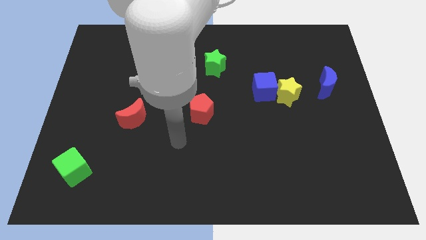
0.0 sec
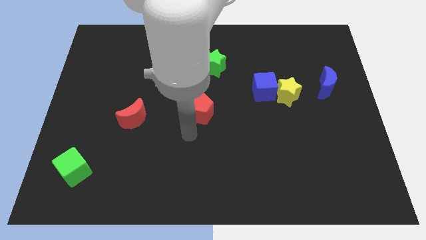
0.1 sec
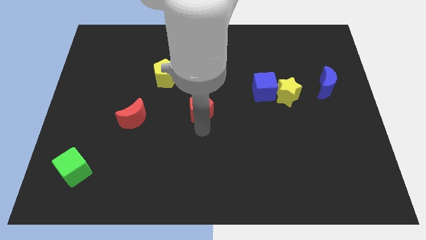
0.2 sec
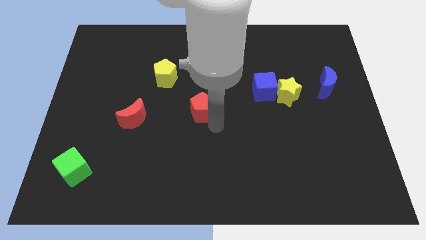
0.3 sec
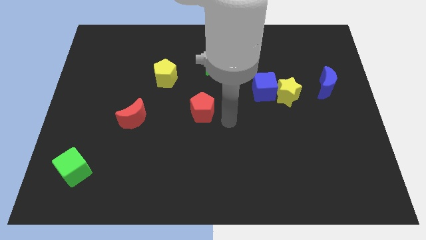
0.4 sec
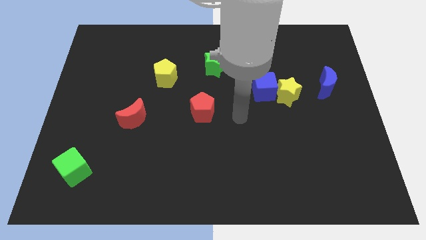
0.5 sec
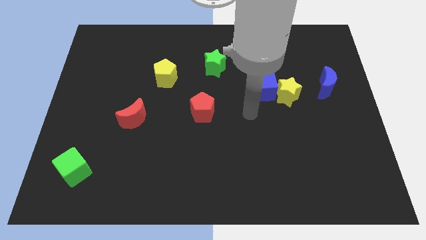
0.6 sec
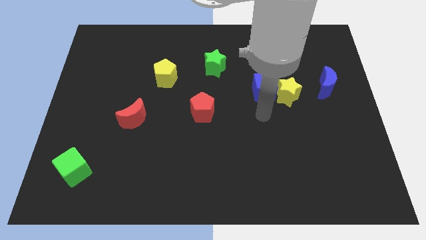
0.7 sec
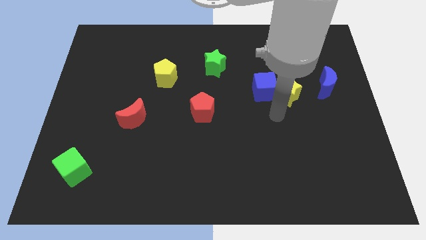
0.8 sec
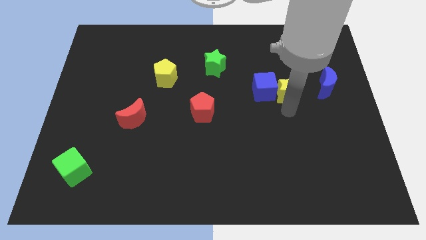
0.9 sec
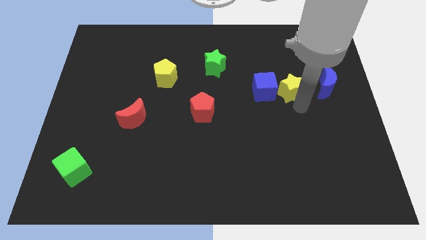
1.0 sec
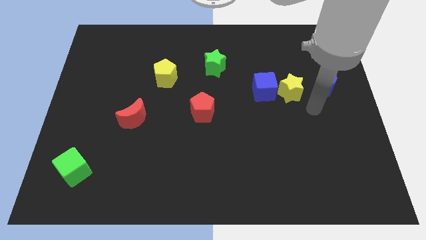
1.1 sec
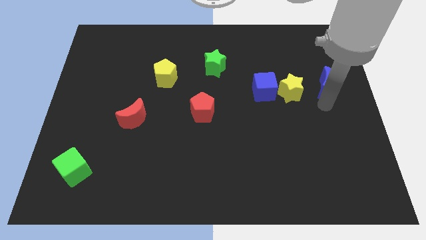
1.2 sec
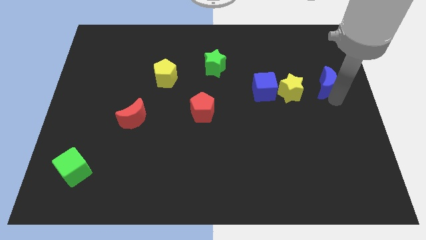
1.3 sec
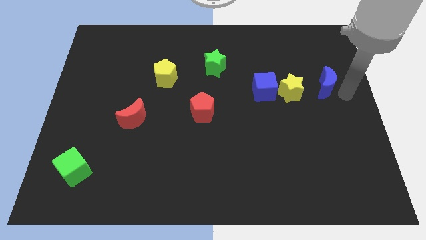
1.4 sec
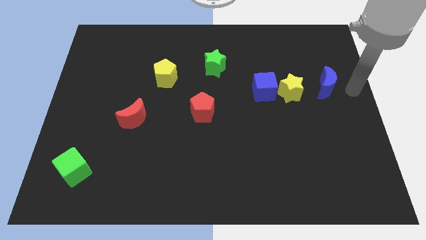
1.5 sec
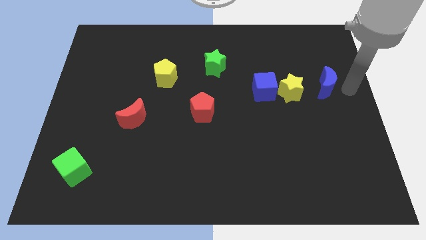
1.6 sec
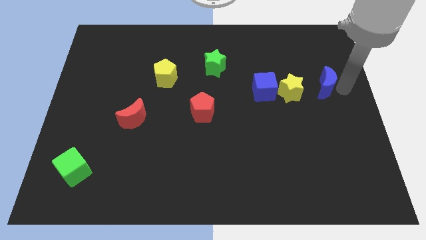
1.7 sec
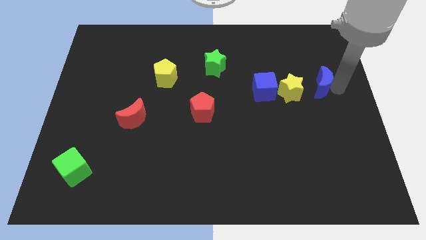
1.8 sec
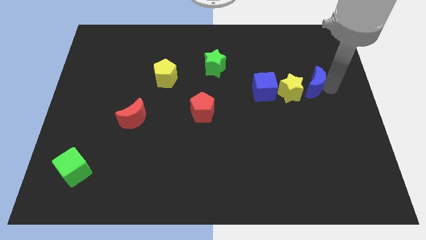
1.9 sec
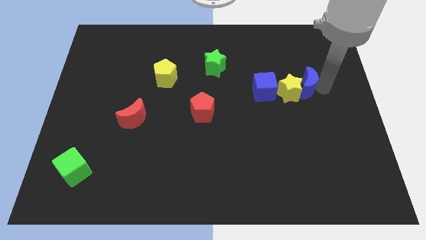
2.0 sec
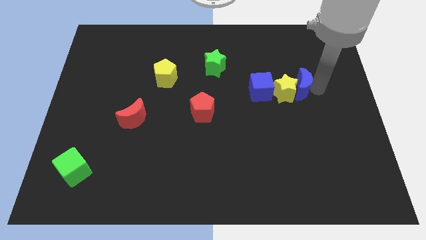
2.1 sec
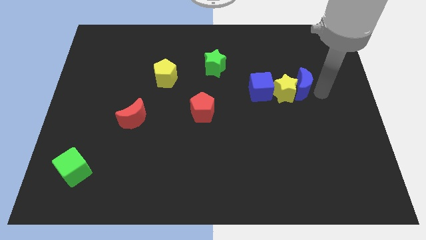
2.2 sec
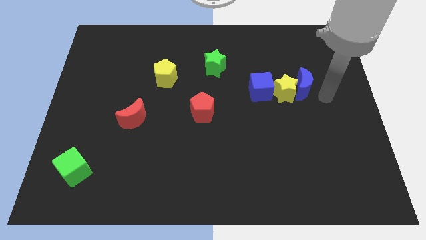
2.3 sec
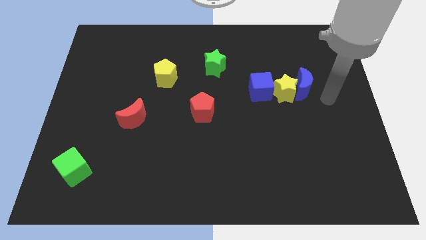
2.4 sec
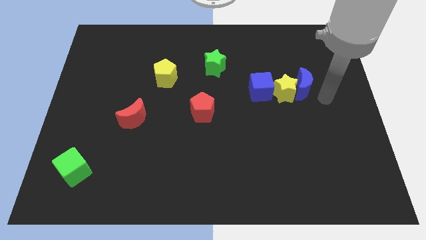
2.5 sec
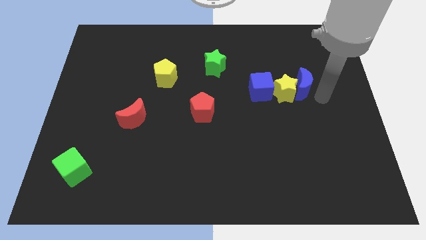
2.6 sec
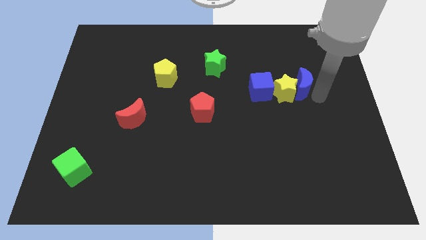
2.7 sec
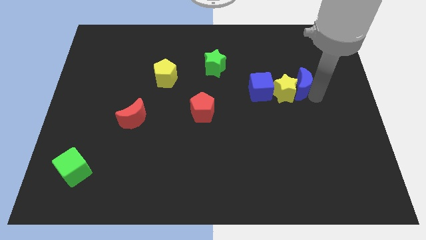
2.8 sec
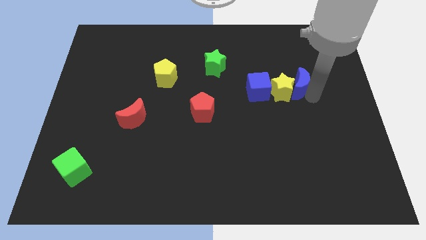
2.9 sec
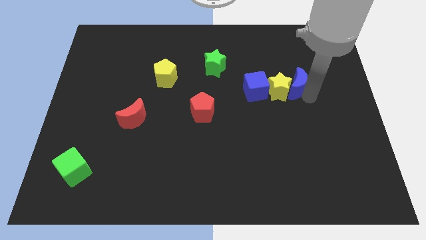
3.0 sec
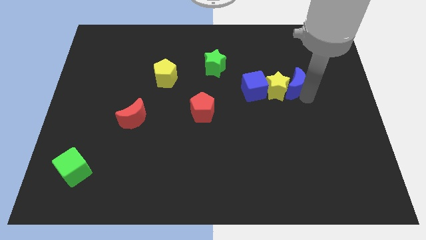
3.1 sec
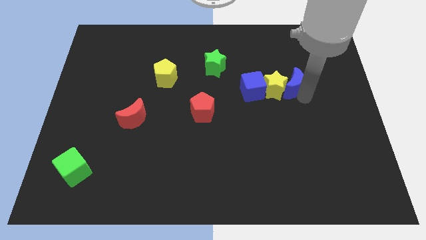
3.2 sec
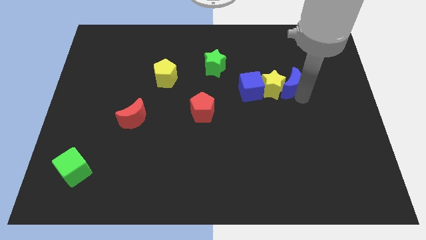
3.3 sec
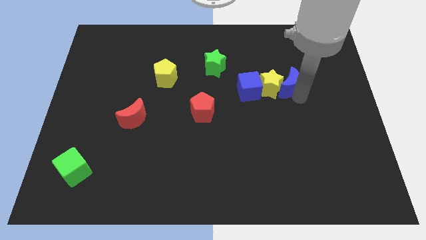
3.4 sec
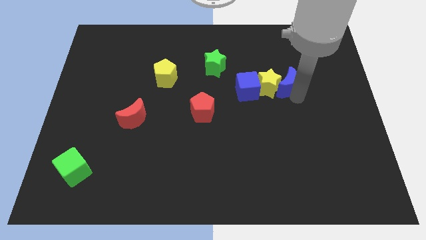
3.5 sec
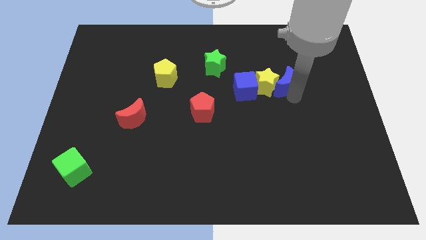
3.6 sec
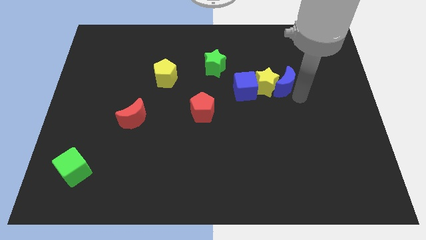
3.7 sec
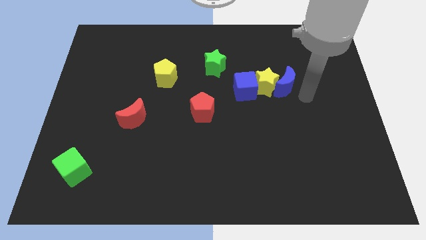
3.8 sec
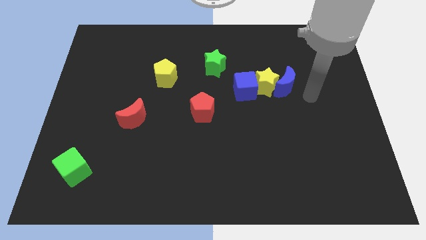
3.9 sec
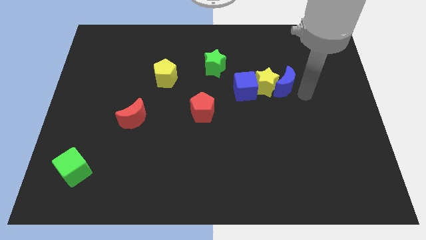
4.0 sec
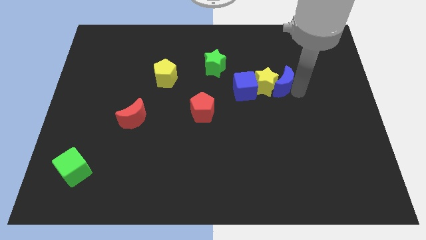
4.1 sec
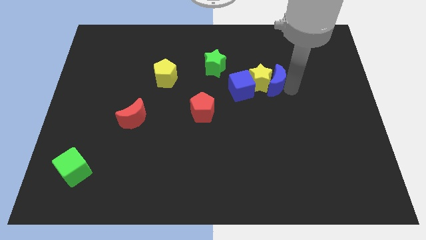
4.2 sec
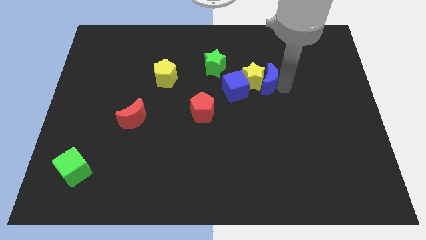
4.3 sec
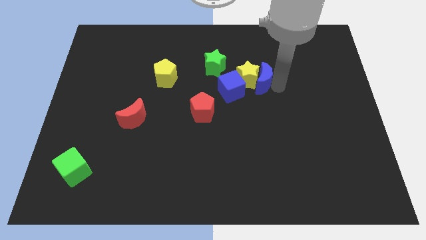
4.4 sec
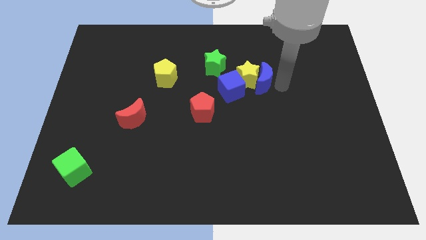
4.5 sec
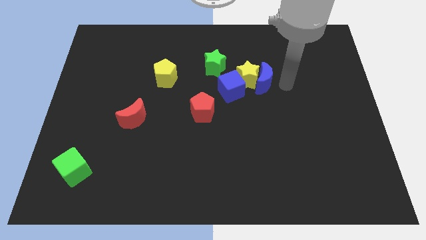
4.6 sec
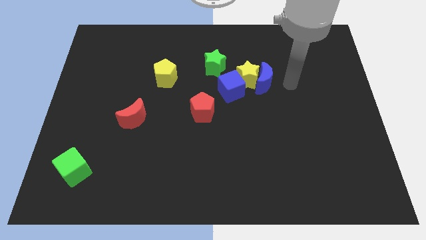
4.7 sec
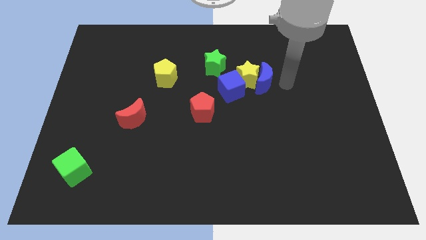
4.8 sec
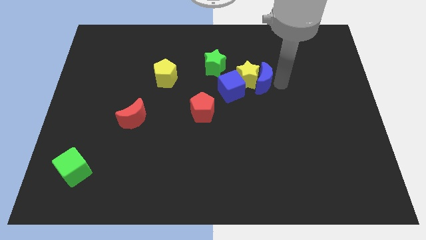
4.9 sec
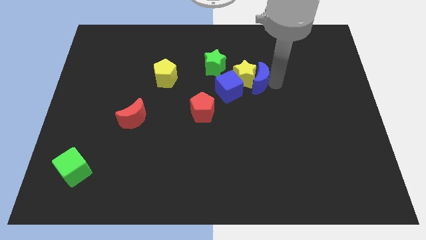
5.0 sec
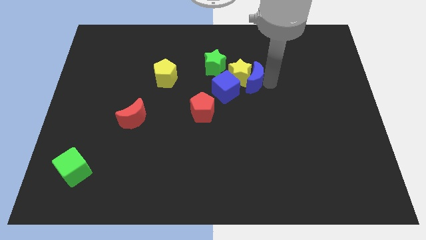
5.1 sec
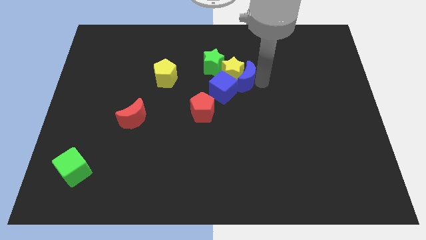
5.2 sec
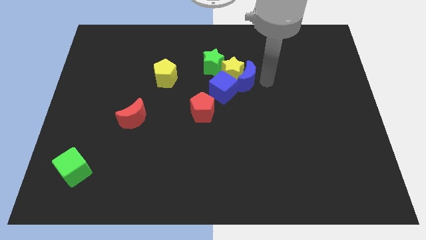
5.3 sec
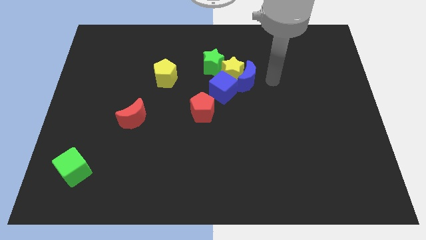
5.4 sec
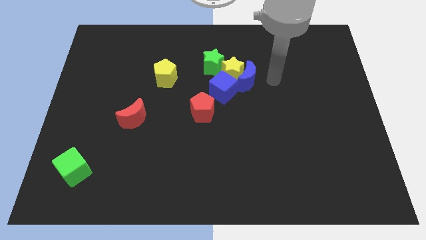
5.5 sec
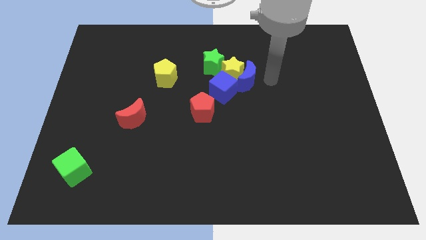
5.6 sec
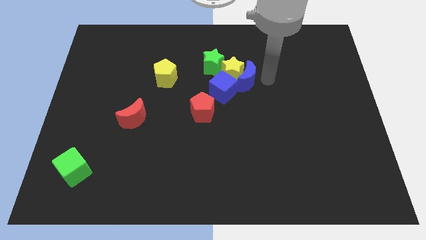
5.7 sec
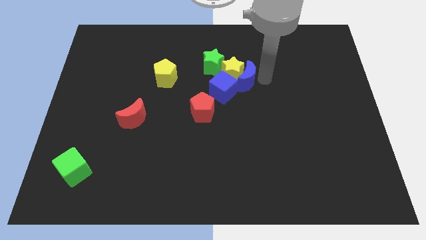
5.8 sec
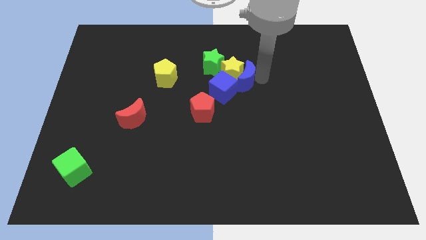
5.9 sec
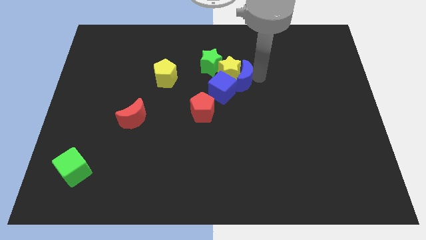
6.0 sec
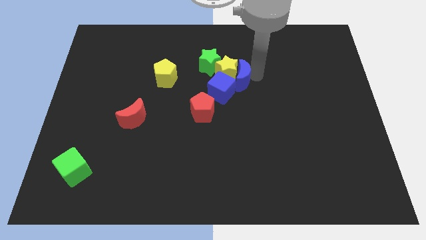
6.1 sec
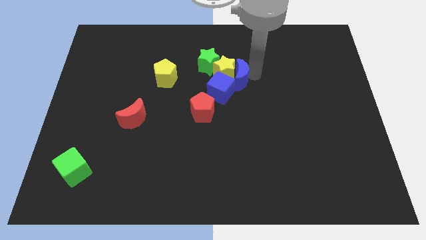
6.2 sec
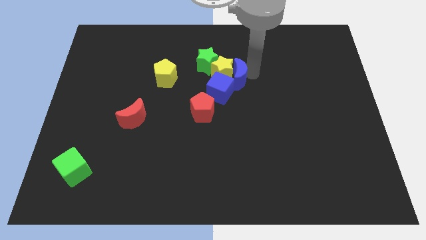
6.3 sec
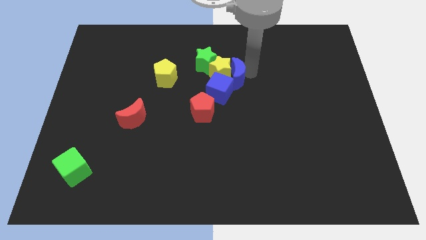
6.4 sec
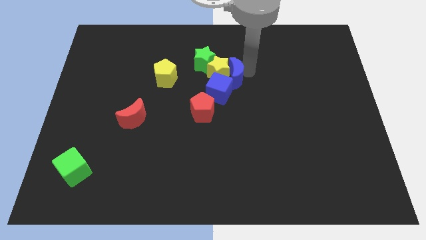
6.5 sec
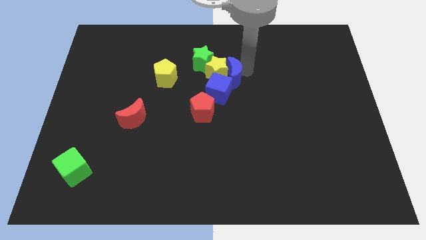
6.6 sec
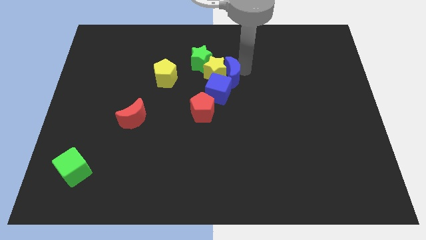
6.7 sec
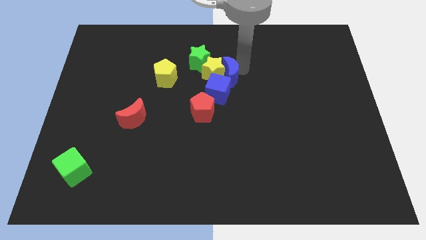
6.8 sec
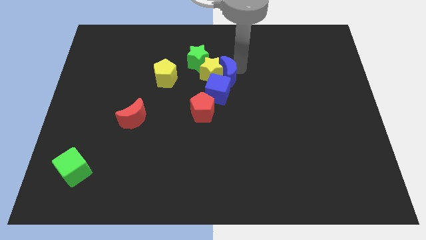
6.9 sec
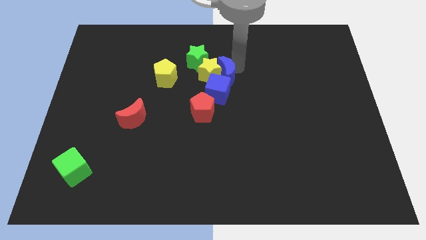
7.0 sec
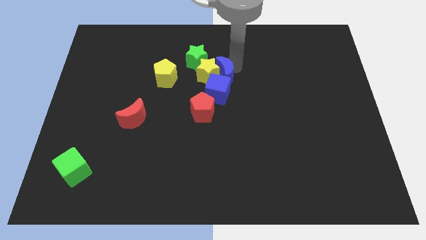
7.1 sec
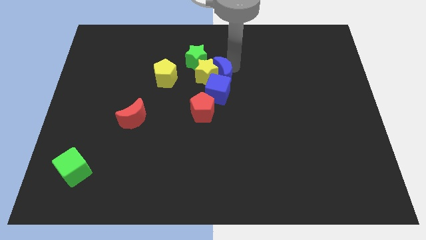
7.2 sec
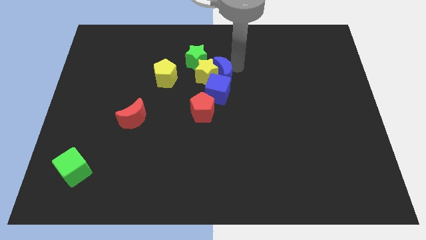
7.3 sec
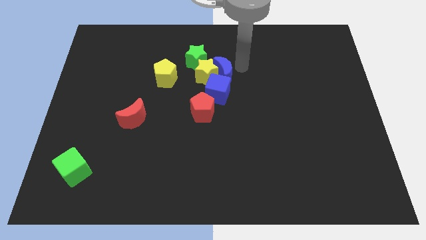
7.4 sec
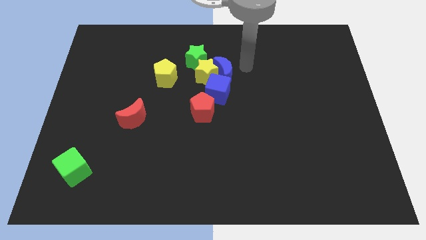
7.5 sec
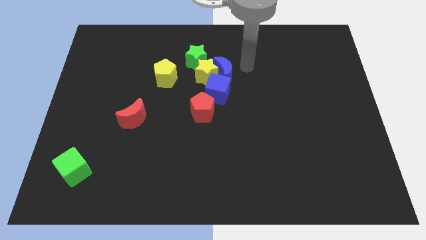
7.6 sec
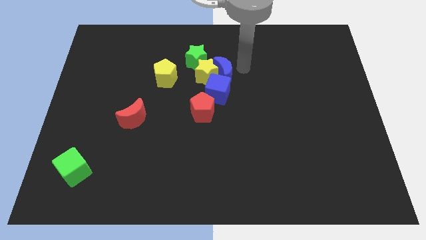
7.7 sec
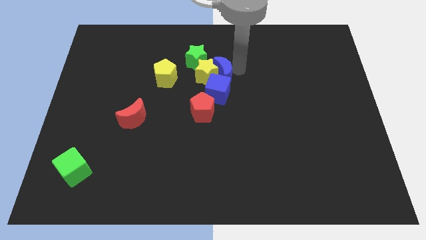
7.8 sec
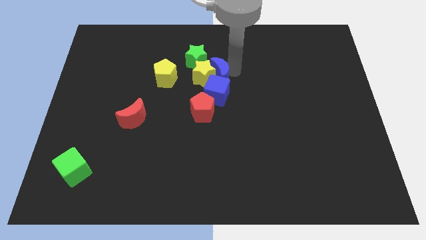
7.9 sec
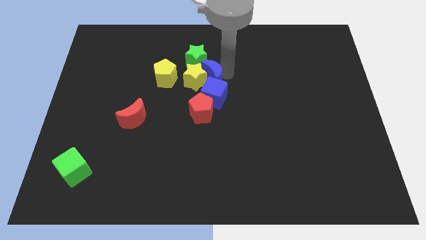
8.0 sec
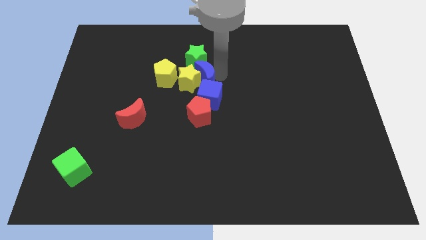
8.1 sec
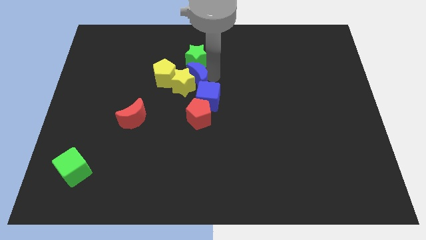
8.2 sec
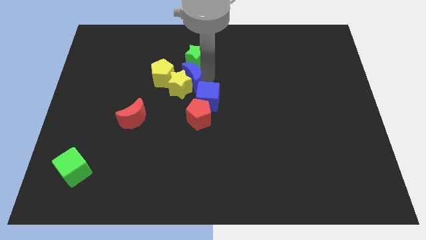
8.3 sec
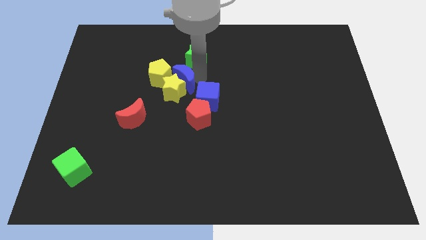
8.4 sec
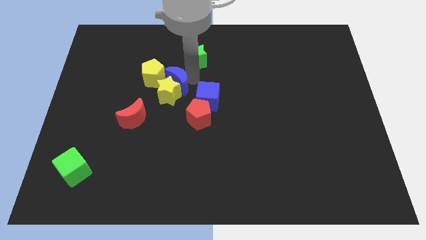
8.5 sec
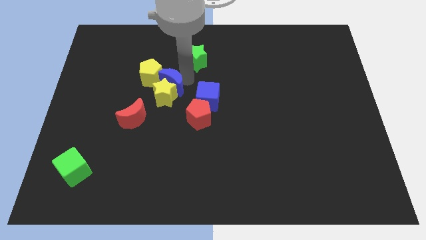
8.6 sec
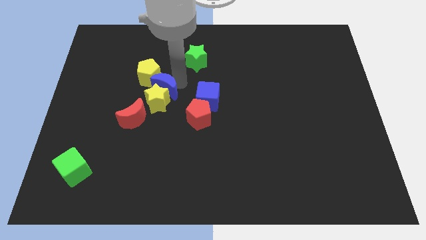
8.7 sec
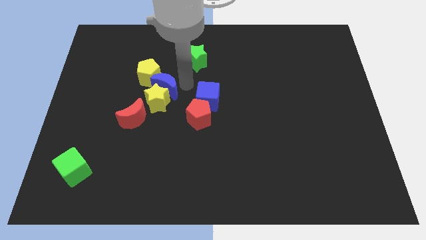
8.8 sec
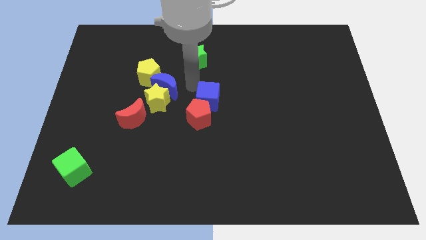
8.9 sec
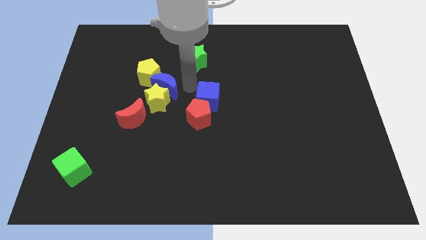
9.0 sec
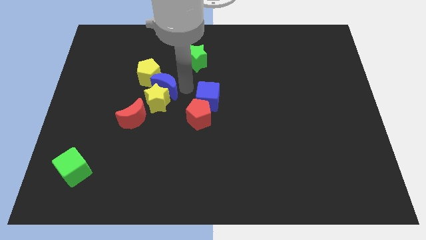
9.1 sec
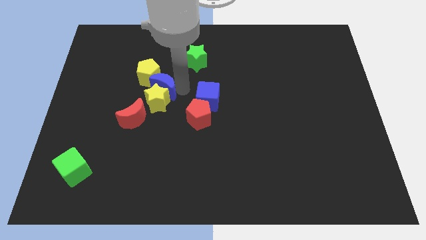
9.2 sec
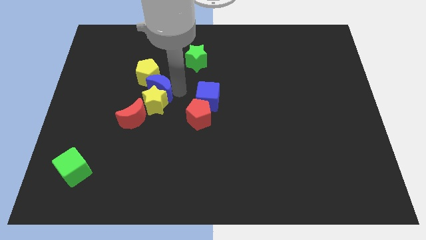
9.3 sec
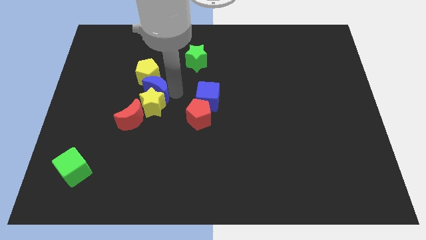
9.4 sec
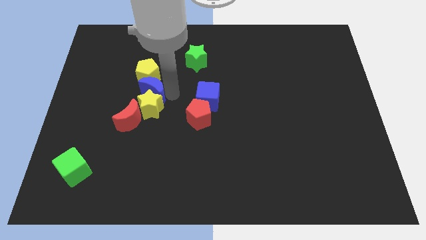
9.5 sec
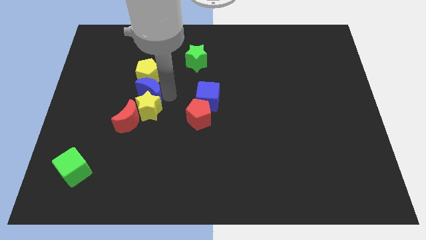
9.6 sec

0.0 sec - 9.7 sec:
slide the blue moon to the bottom left side of the yellow pentagon
